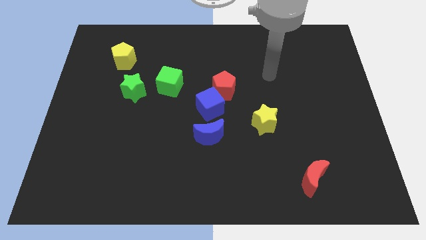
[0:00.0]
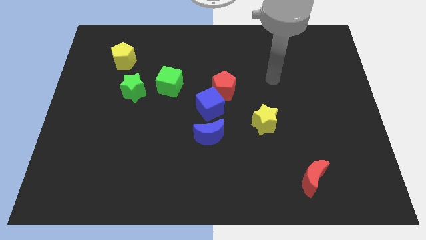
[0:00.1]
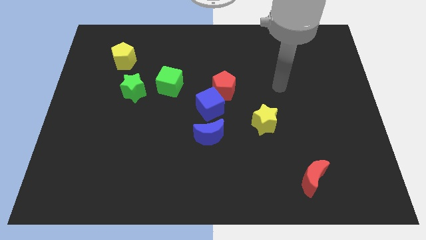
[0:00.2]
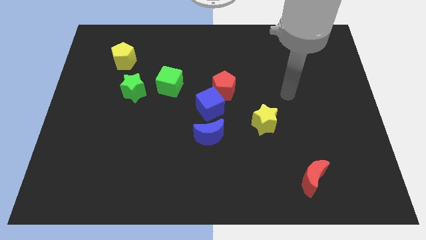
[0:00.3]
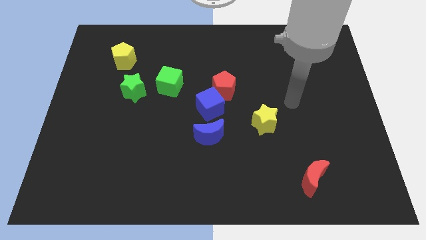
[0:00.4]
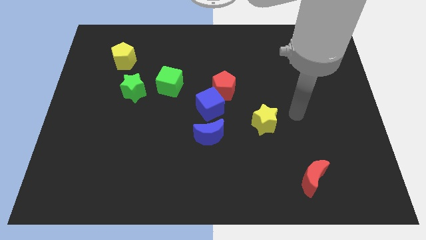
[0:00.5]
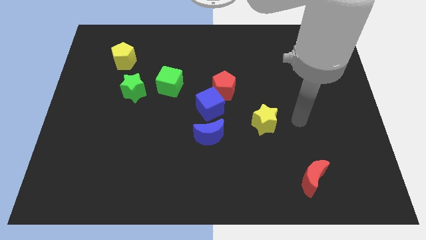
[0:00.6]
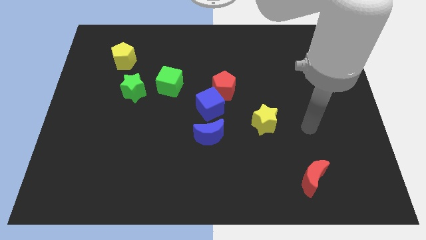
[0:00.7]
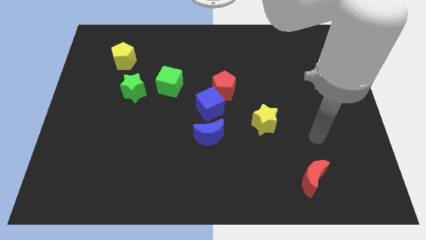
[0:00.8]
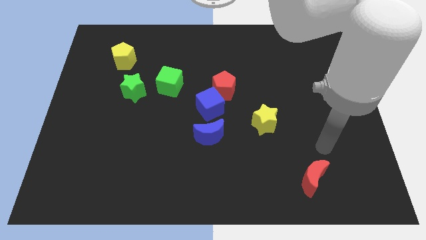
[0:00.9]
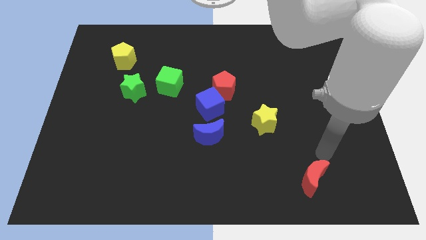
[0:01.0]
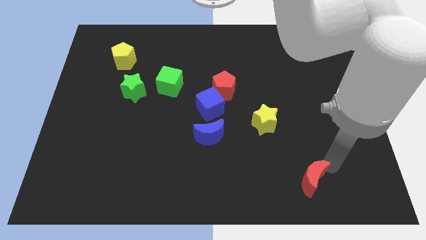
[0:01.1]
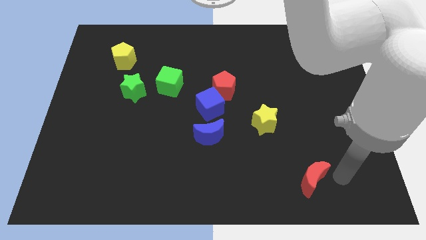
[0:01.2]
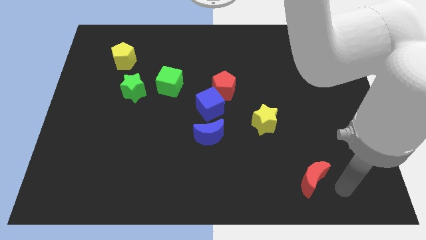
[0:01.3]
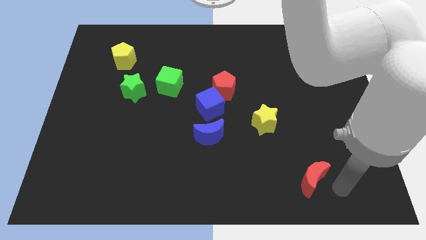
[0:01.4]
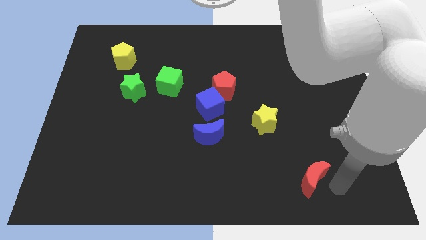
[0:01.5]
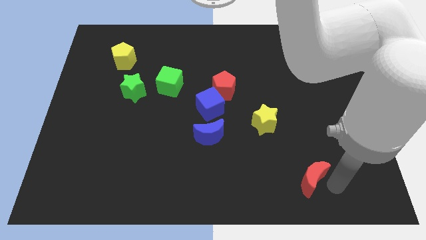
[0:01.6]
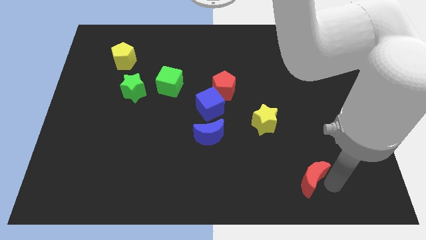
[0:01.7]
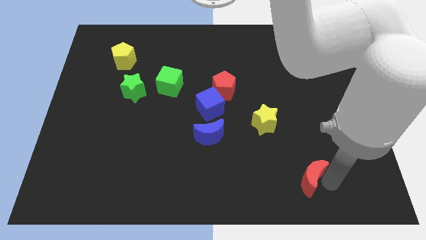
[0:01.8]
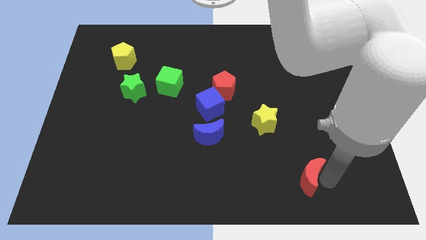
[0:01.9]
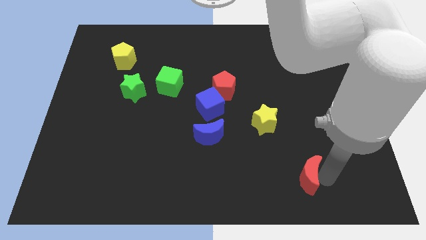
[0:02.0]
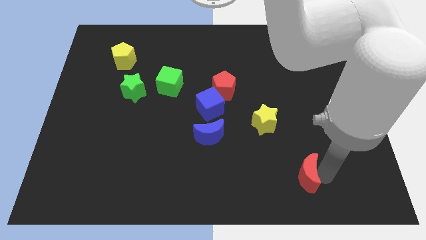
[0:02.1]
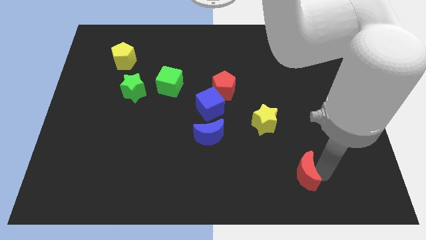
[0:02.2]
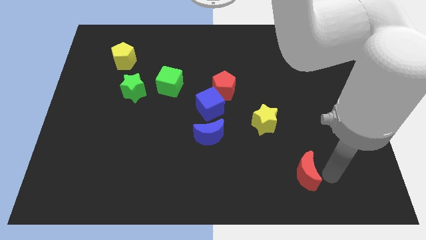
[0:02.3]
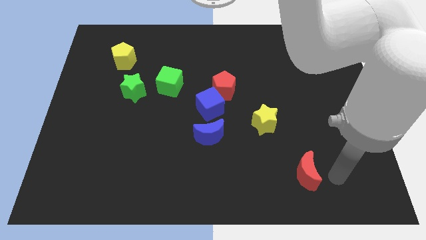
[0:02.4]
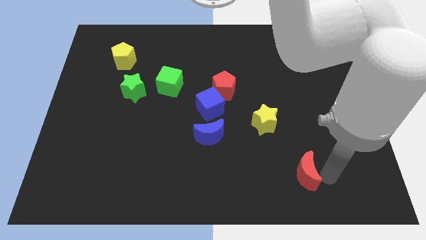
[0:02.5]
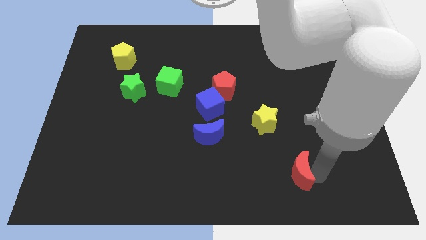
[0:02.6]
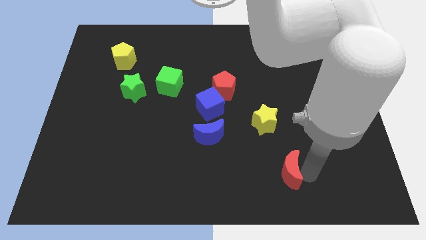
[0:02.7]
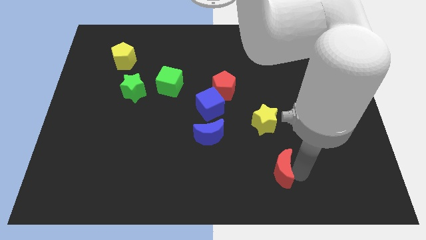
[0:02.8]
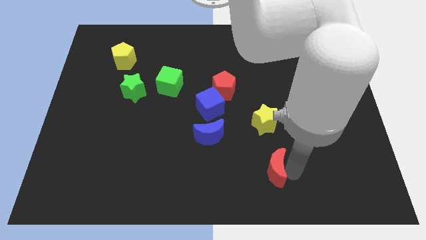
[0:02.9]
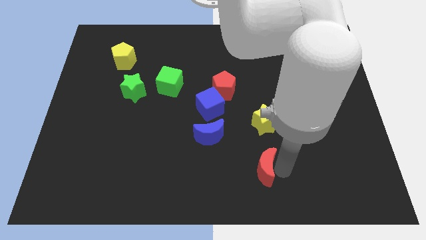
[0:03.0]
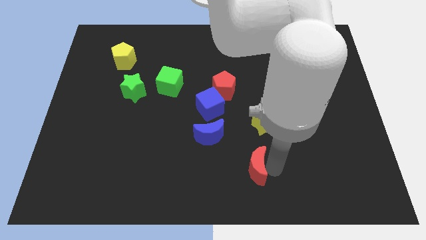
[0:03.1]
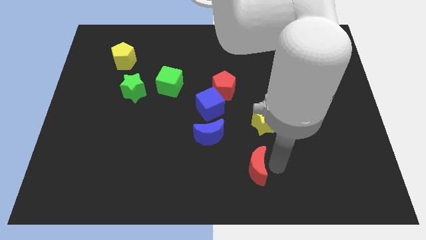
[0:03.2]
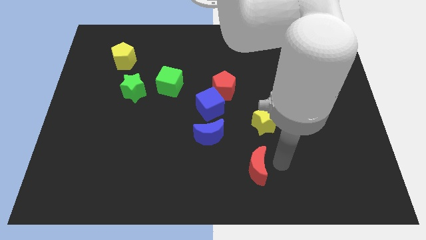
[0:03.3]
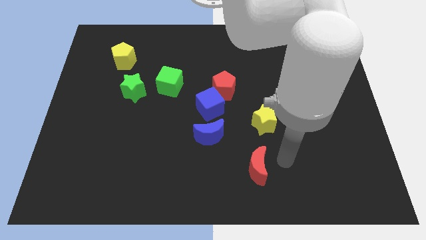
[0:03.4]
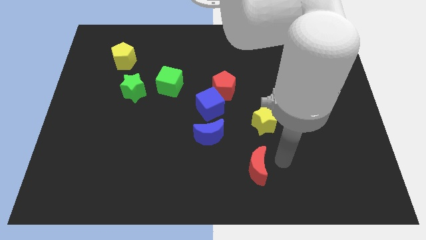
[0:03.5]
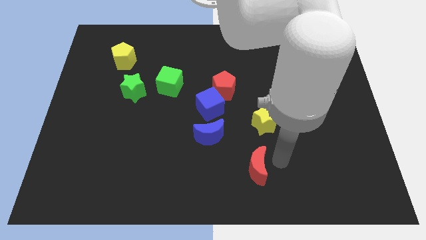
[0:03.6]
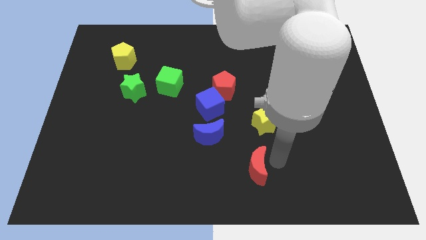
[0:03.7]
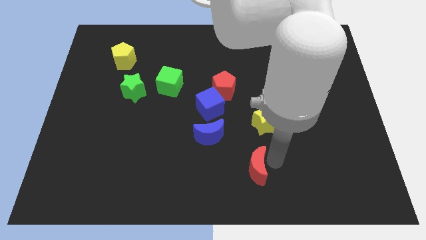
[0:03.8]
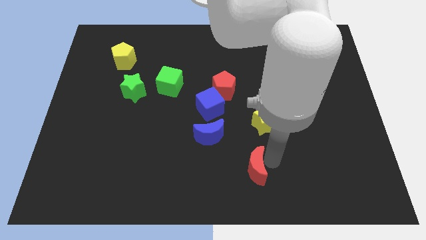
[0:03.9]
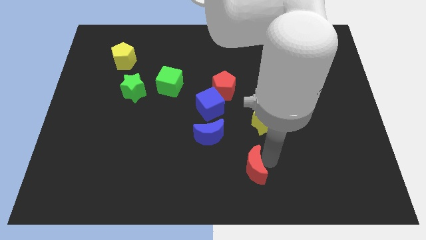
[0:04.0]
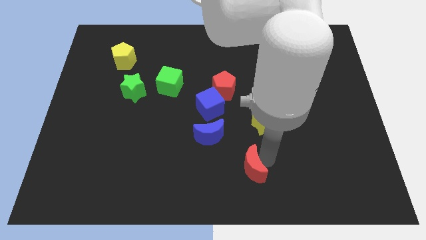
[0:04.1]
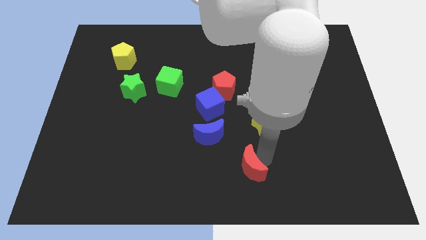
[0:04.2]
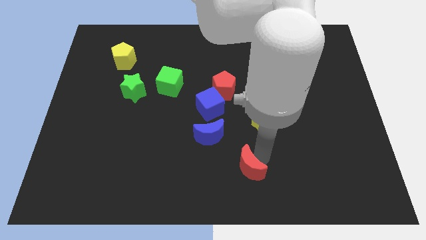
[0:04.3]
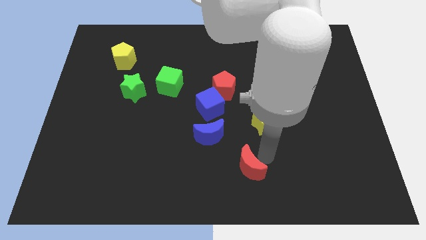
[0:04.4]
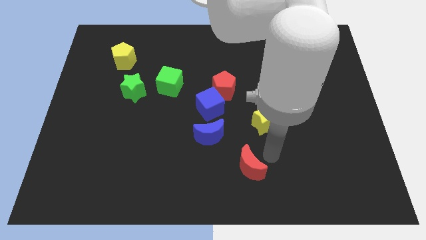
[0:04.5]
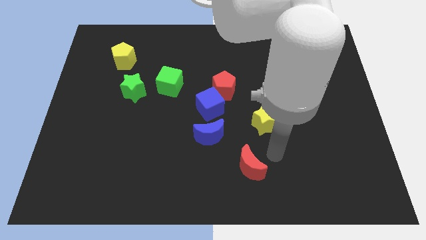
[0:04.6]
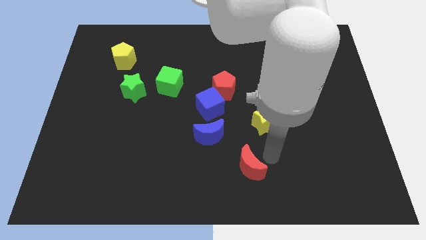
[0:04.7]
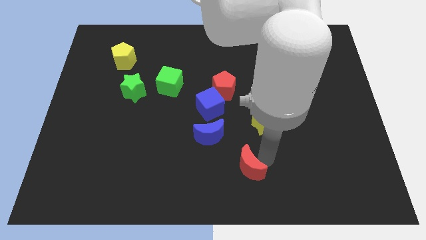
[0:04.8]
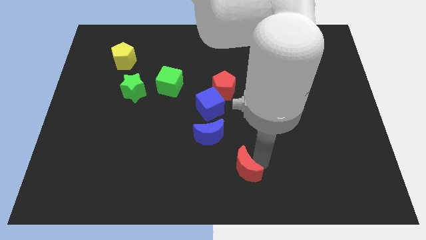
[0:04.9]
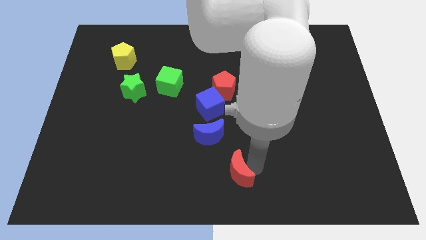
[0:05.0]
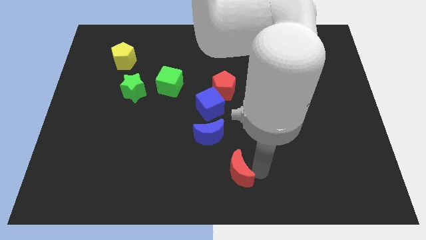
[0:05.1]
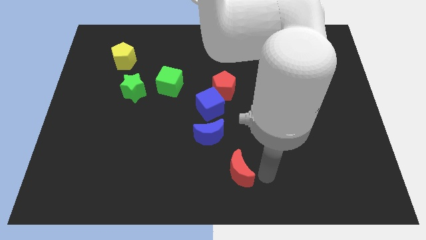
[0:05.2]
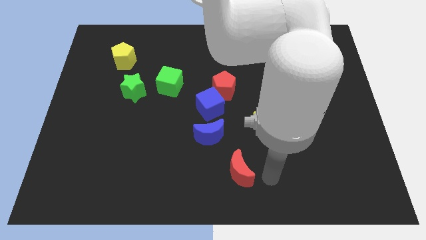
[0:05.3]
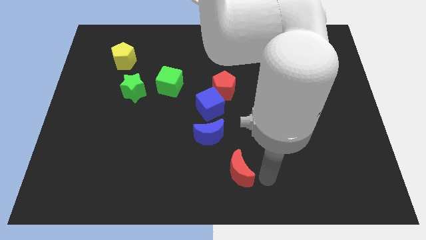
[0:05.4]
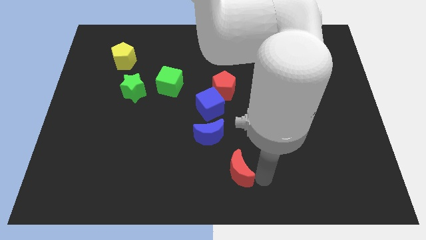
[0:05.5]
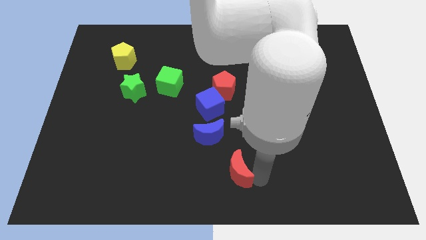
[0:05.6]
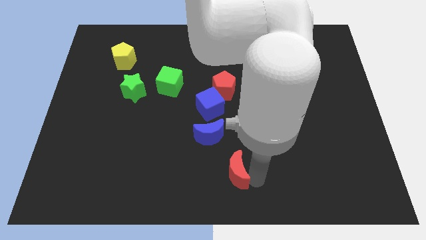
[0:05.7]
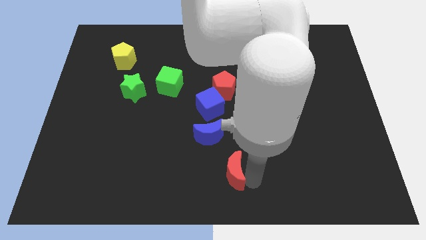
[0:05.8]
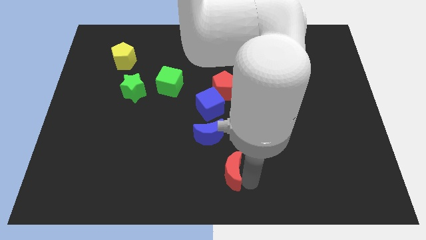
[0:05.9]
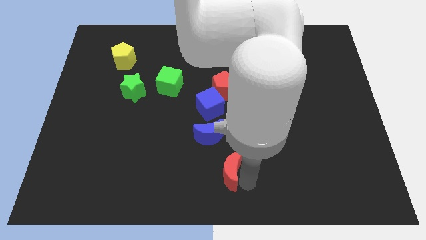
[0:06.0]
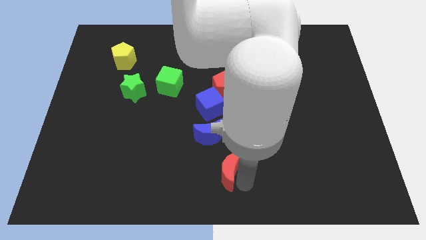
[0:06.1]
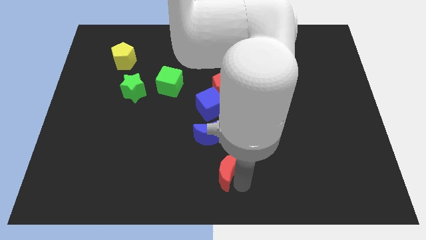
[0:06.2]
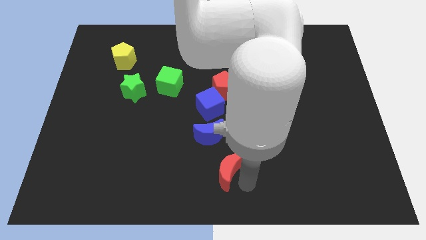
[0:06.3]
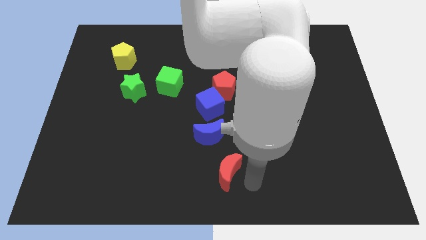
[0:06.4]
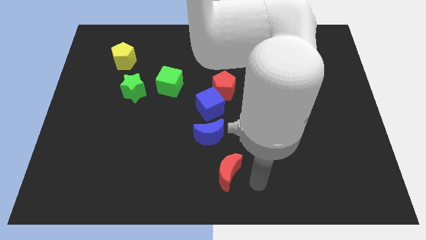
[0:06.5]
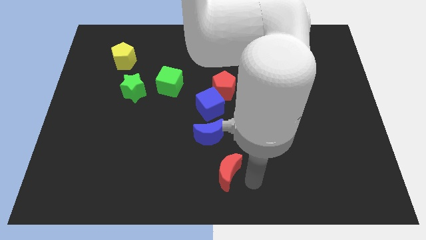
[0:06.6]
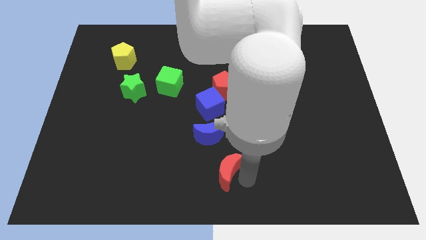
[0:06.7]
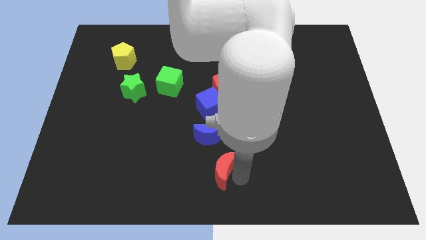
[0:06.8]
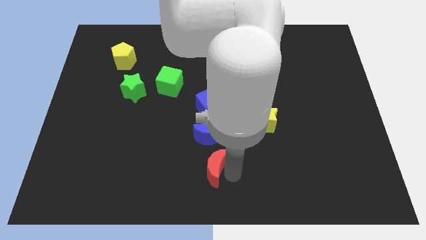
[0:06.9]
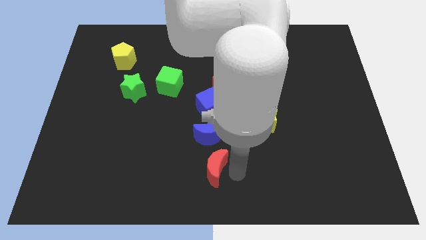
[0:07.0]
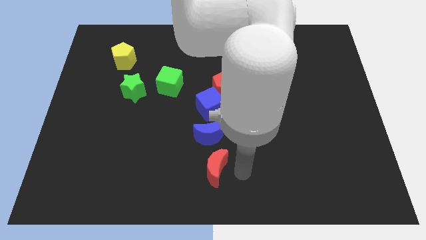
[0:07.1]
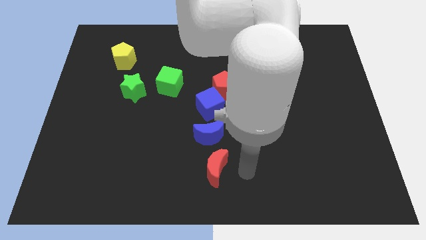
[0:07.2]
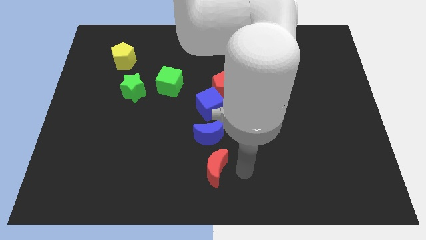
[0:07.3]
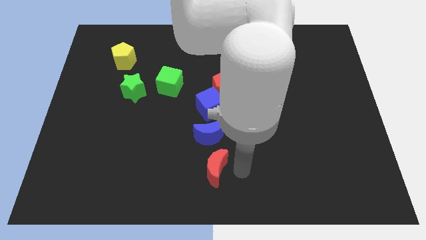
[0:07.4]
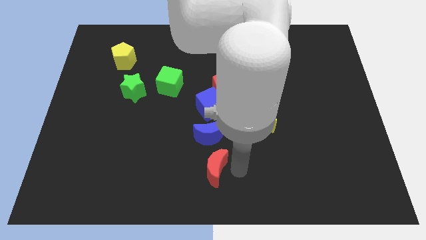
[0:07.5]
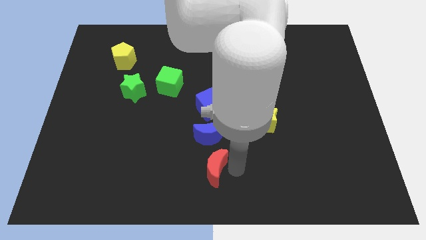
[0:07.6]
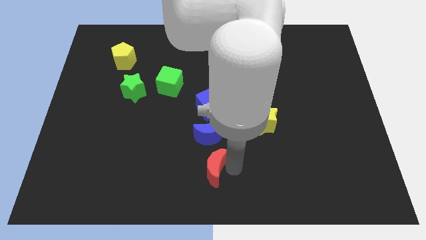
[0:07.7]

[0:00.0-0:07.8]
slide the red moon to the left

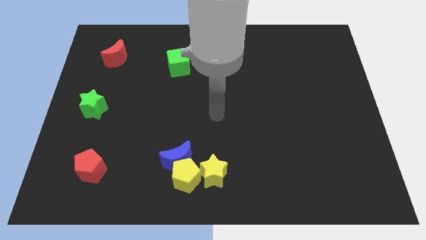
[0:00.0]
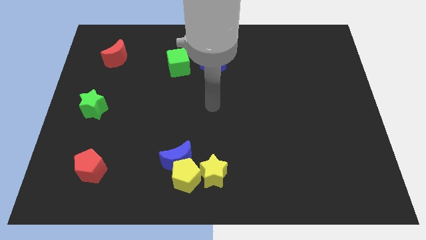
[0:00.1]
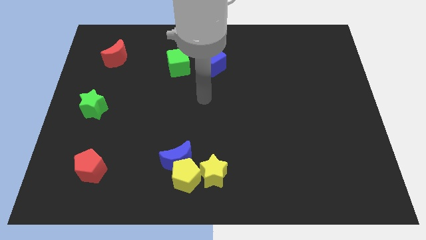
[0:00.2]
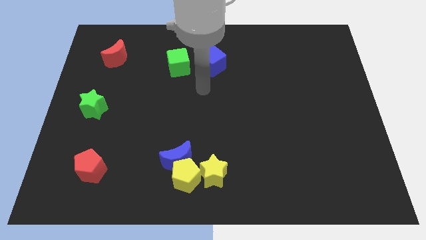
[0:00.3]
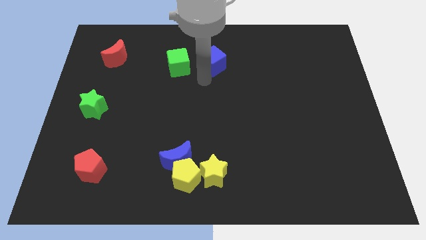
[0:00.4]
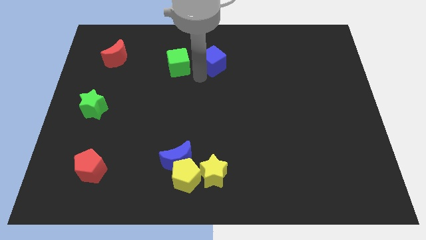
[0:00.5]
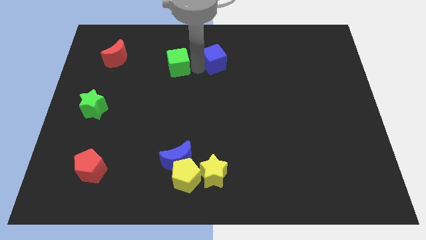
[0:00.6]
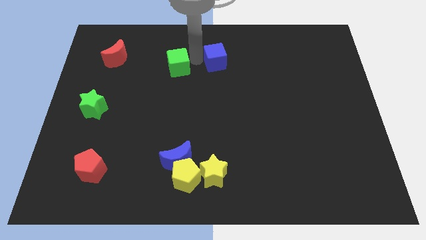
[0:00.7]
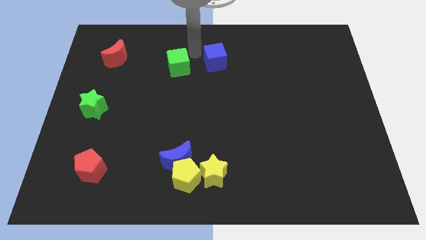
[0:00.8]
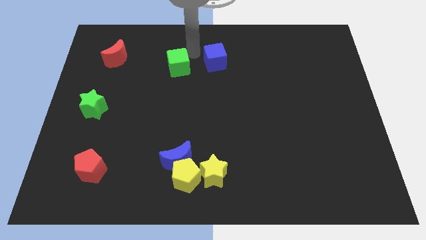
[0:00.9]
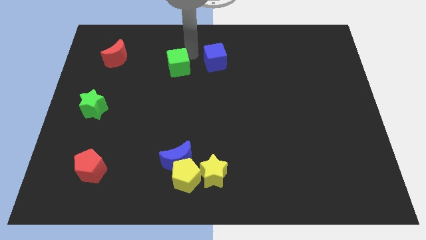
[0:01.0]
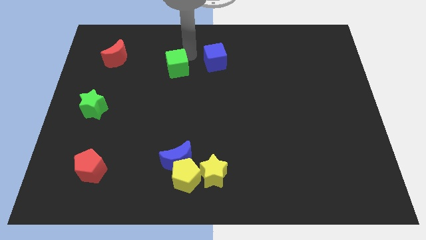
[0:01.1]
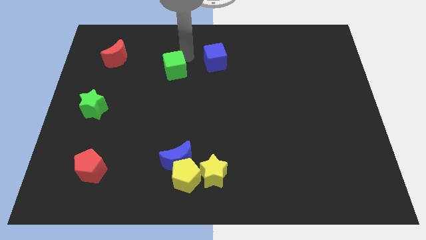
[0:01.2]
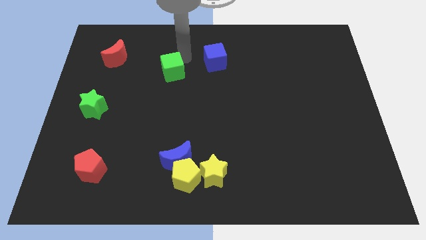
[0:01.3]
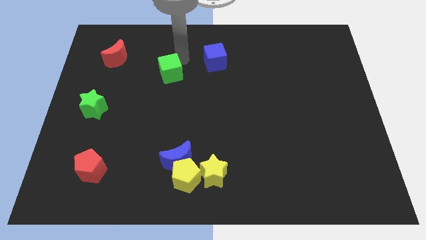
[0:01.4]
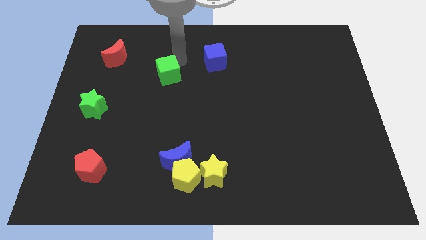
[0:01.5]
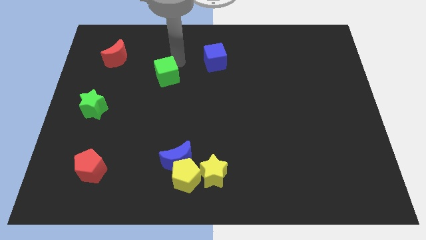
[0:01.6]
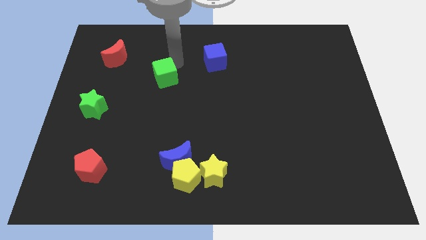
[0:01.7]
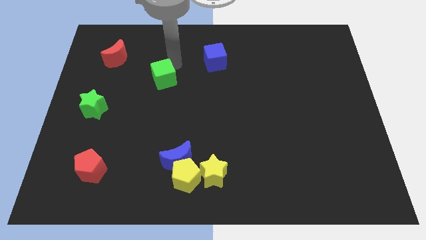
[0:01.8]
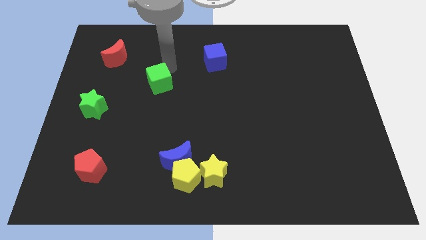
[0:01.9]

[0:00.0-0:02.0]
push the green cube a little bit down and left diagonally
